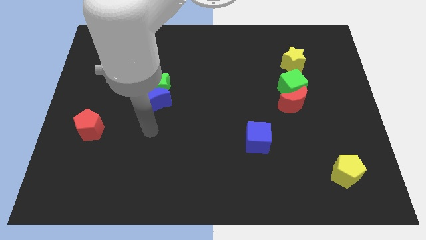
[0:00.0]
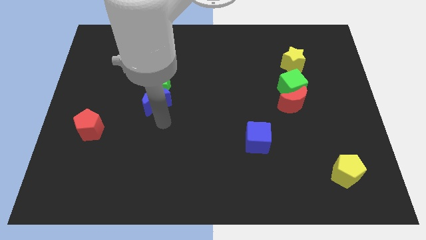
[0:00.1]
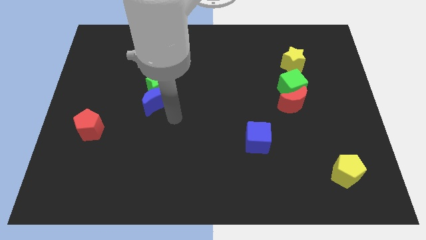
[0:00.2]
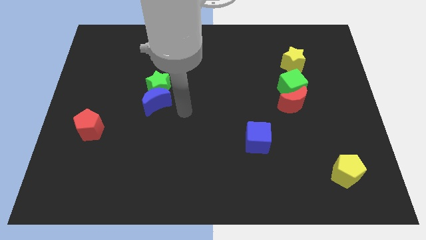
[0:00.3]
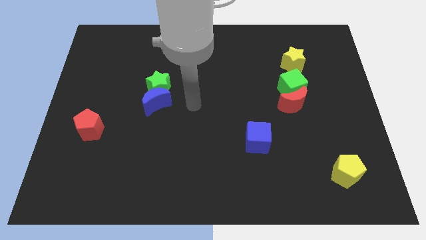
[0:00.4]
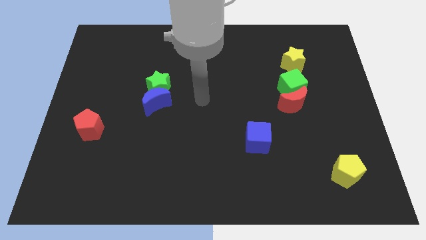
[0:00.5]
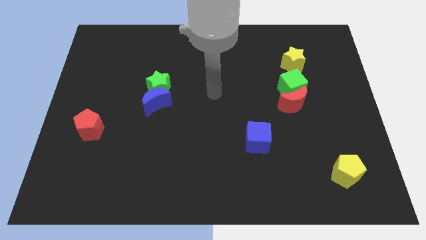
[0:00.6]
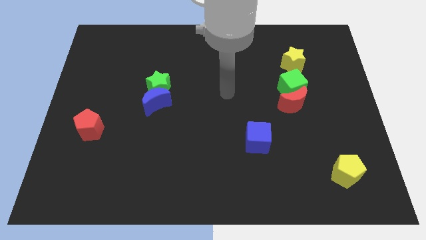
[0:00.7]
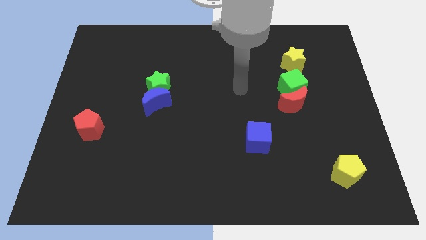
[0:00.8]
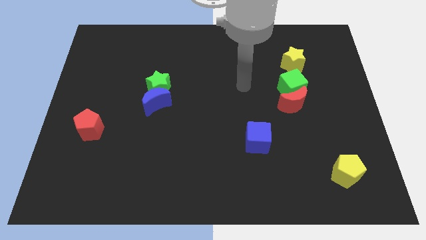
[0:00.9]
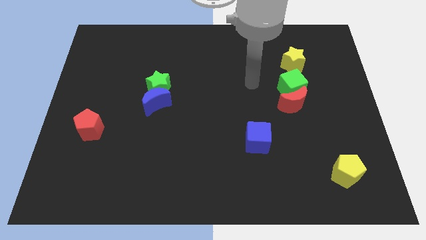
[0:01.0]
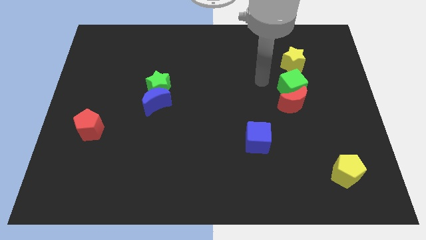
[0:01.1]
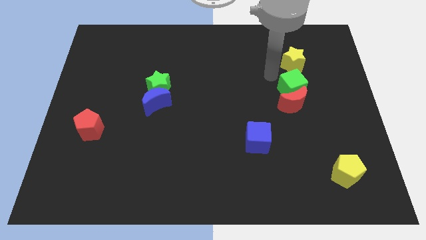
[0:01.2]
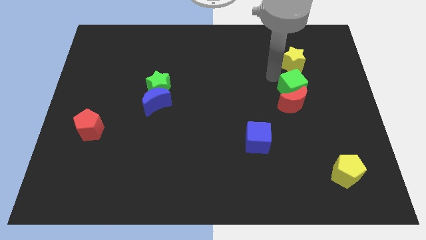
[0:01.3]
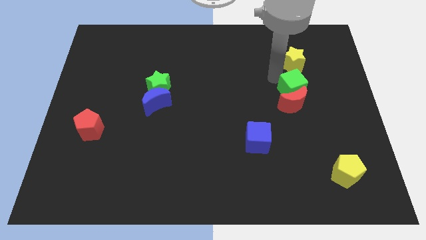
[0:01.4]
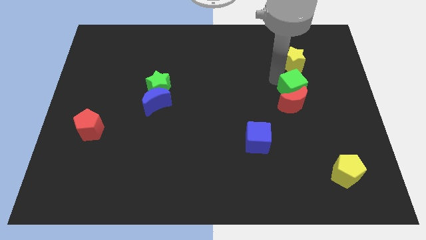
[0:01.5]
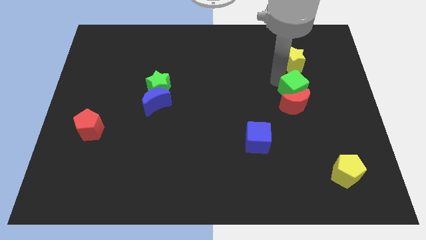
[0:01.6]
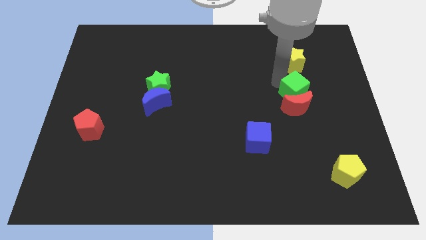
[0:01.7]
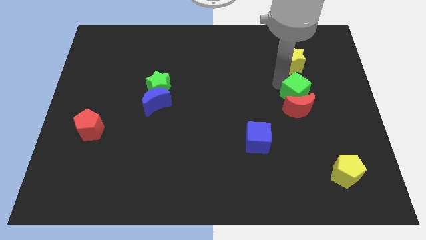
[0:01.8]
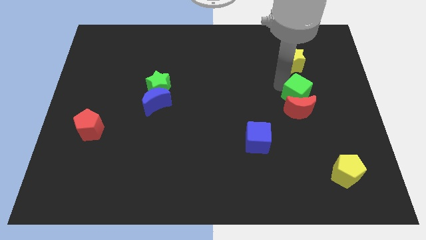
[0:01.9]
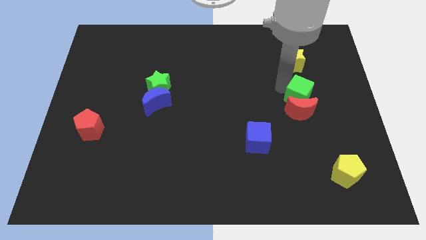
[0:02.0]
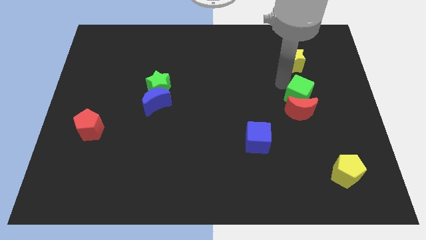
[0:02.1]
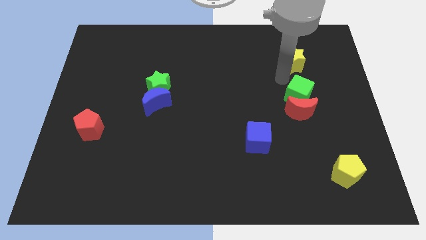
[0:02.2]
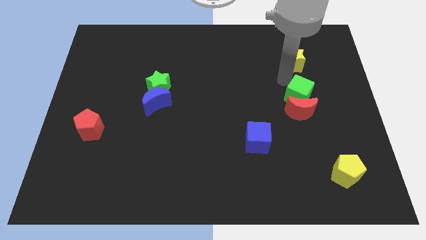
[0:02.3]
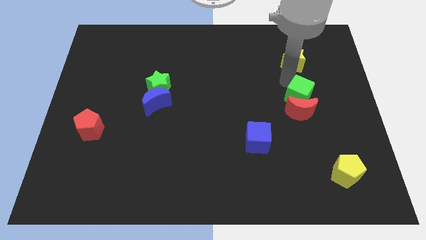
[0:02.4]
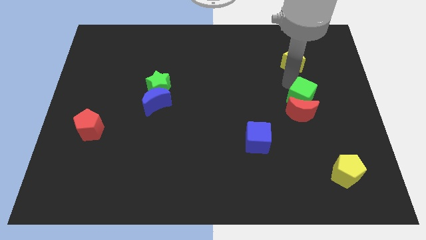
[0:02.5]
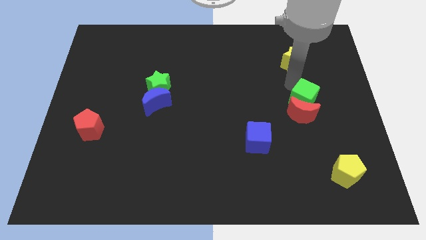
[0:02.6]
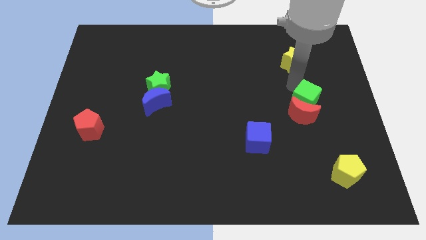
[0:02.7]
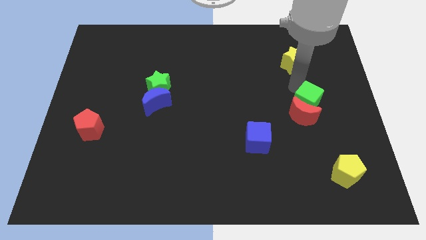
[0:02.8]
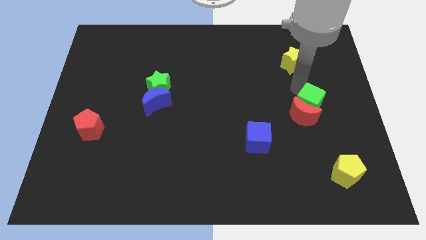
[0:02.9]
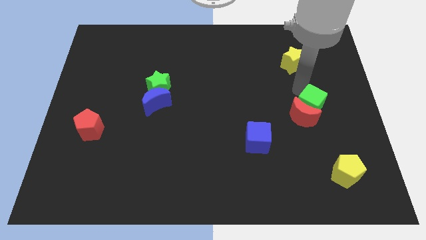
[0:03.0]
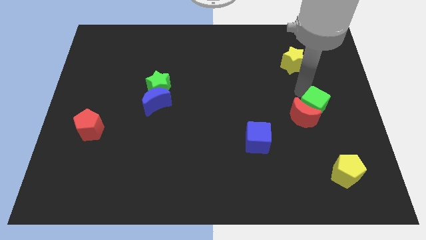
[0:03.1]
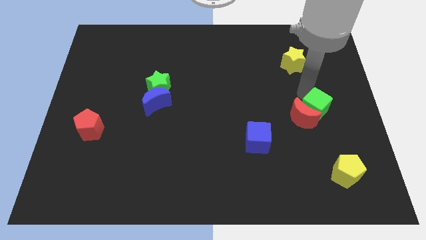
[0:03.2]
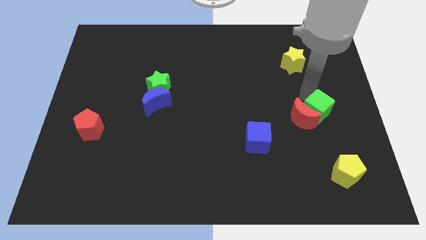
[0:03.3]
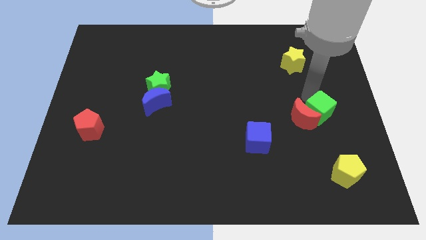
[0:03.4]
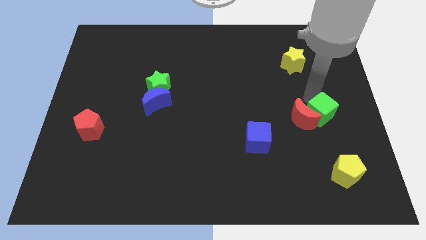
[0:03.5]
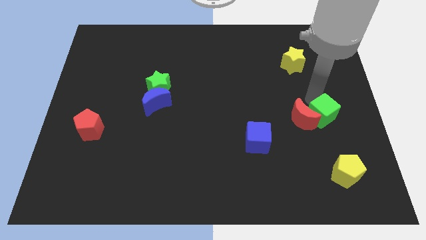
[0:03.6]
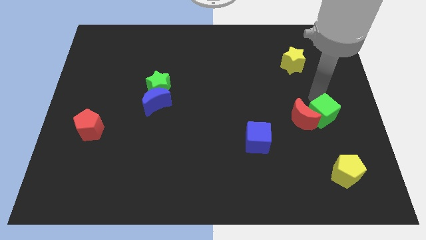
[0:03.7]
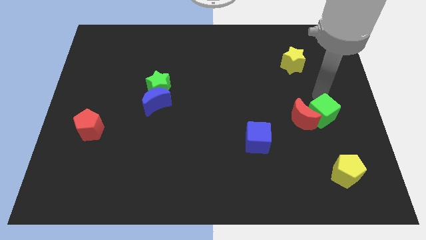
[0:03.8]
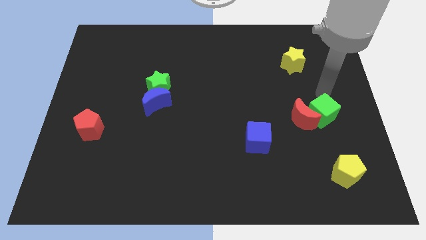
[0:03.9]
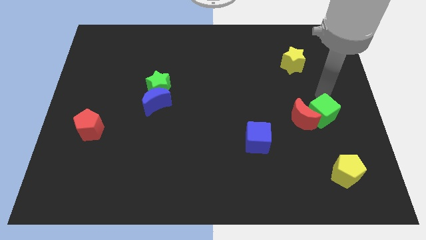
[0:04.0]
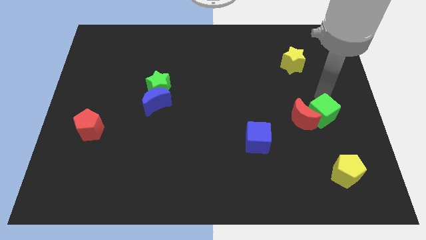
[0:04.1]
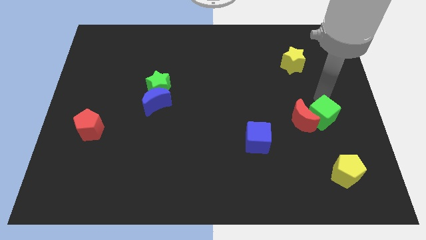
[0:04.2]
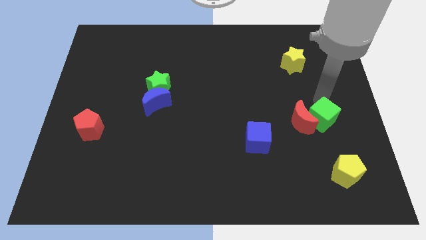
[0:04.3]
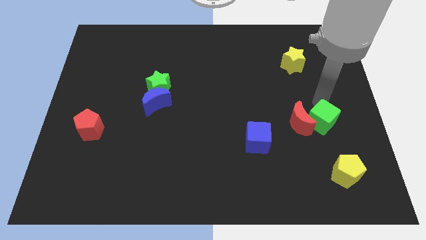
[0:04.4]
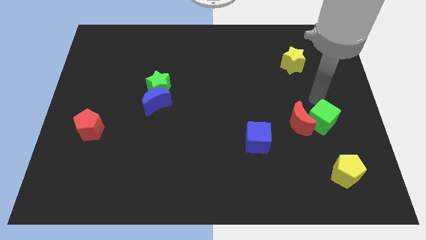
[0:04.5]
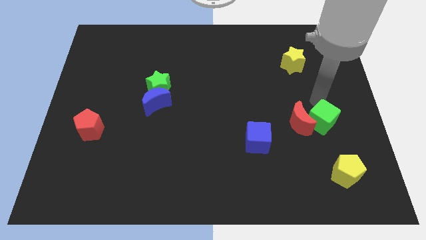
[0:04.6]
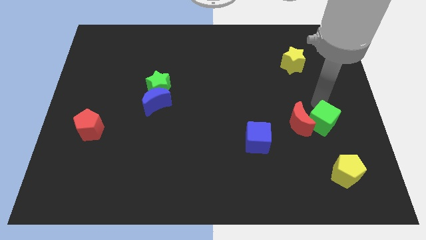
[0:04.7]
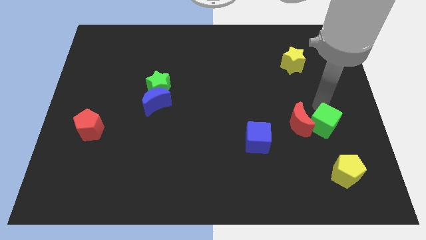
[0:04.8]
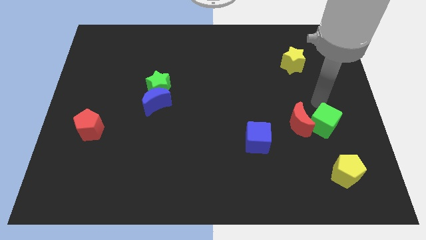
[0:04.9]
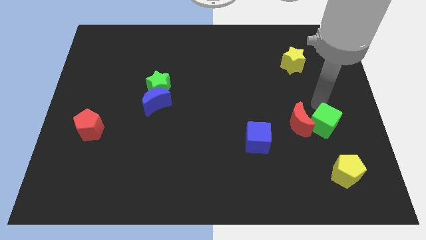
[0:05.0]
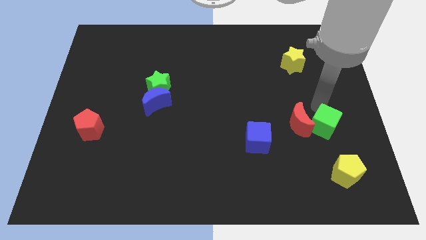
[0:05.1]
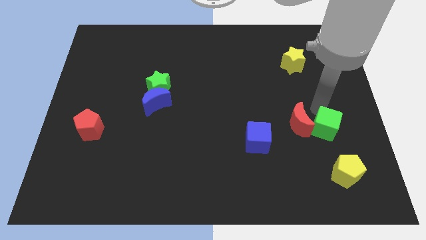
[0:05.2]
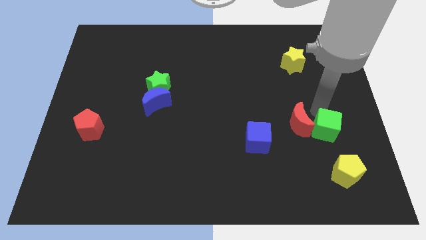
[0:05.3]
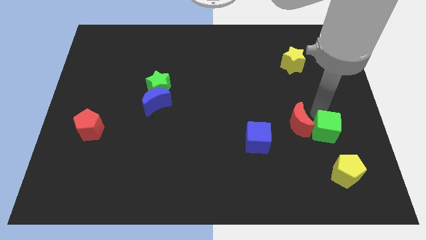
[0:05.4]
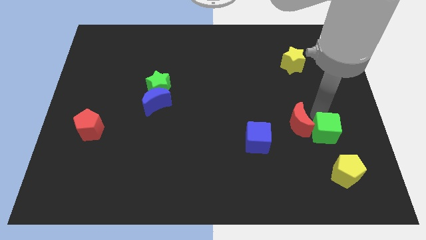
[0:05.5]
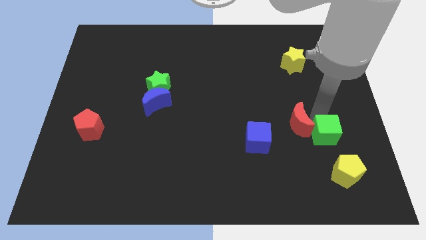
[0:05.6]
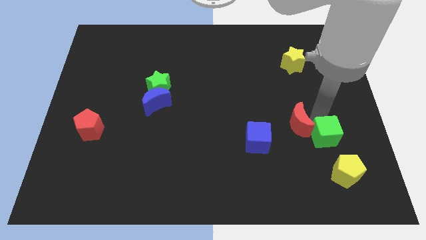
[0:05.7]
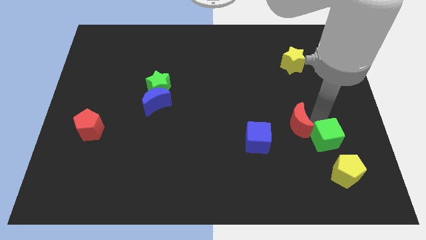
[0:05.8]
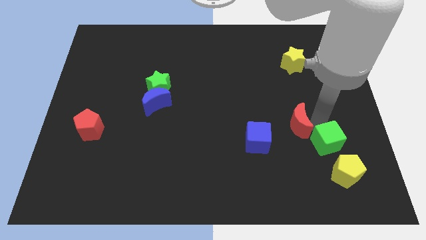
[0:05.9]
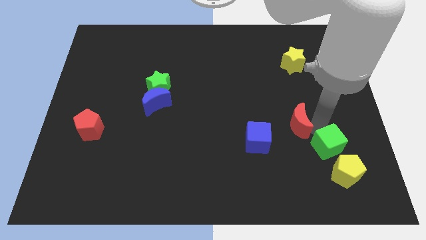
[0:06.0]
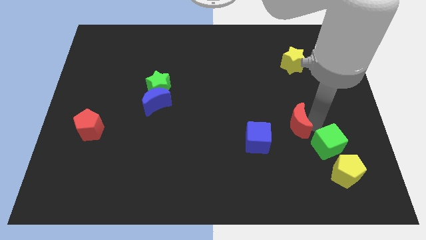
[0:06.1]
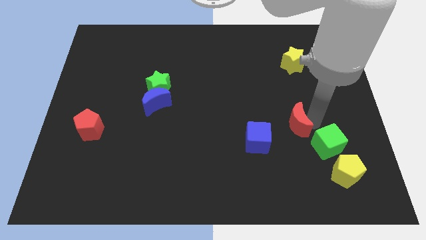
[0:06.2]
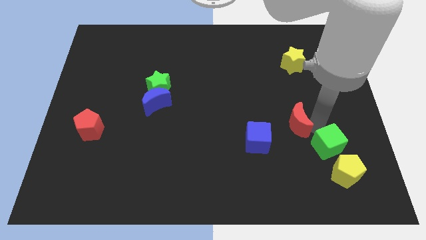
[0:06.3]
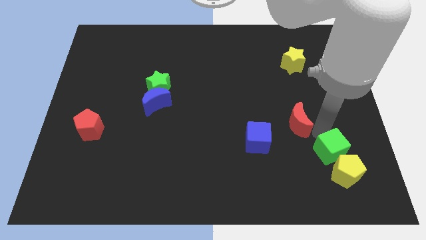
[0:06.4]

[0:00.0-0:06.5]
slide the green cube to the yellow pentagon
